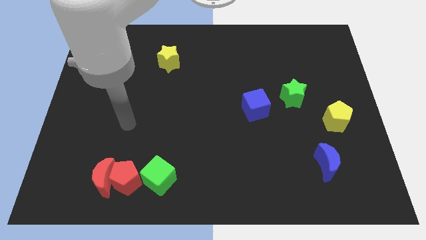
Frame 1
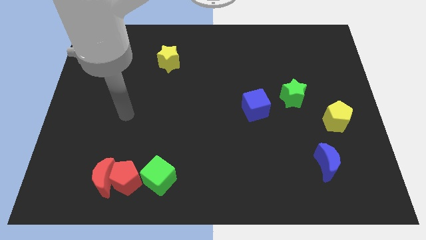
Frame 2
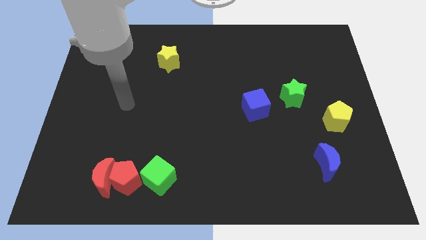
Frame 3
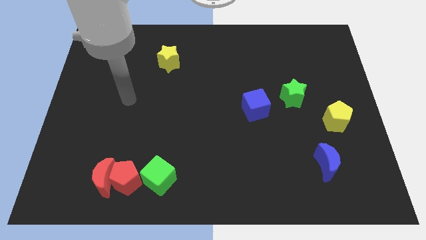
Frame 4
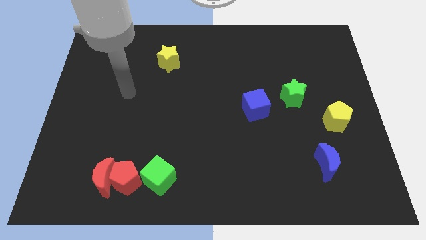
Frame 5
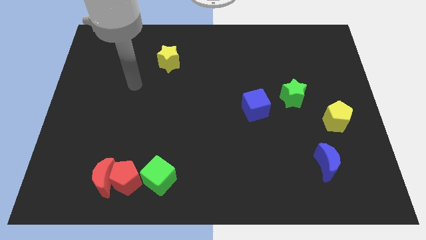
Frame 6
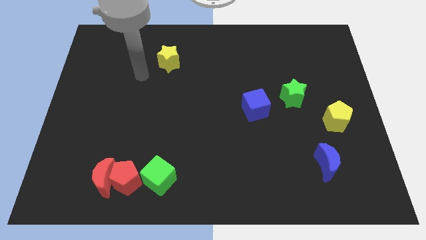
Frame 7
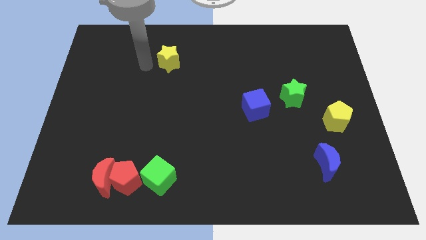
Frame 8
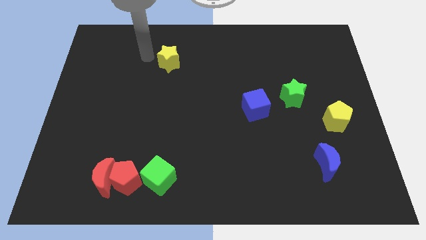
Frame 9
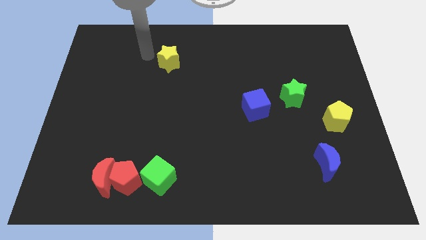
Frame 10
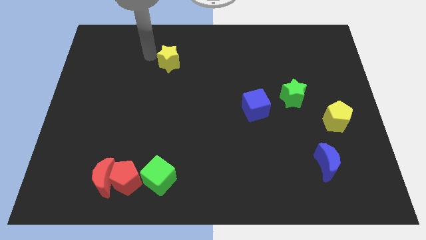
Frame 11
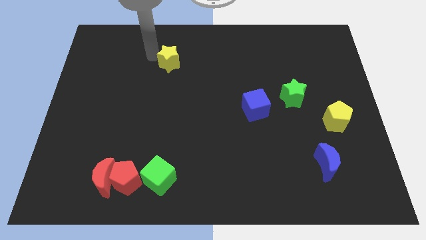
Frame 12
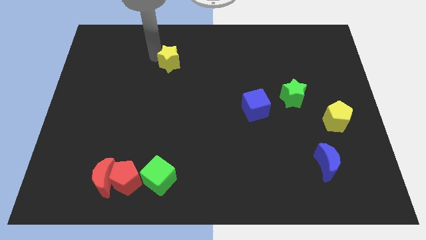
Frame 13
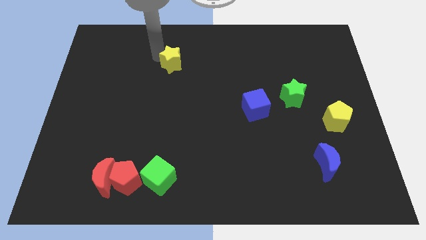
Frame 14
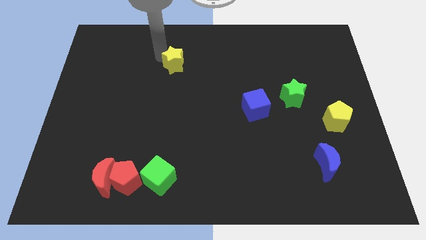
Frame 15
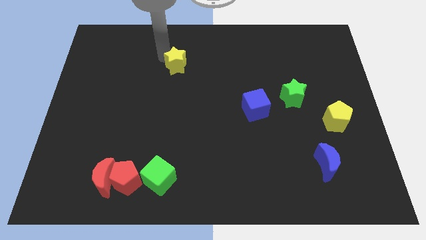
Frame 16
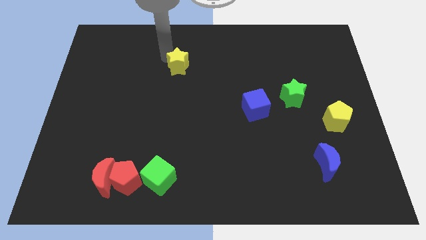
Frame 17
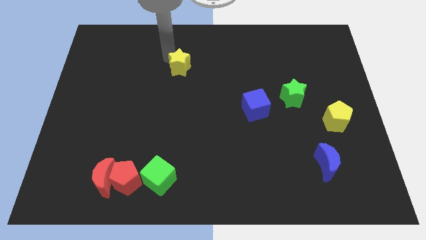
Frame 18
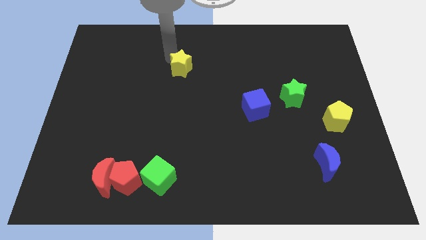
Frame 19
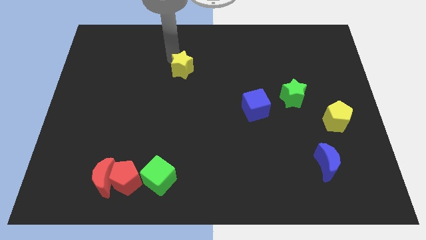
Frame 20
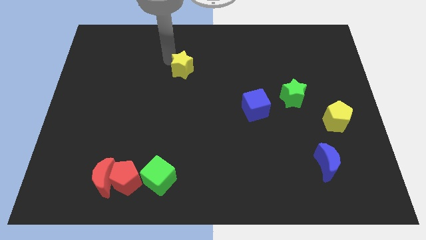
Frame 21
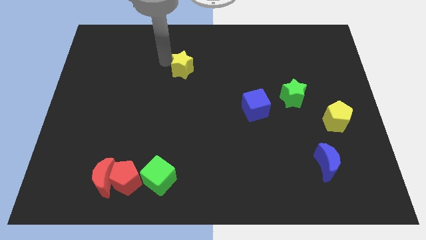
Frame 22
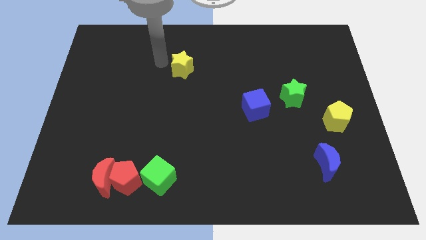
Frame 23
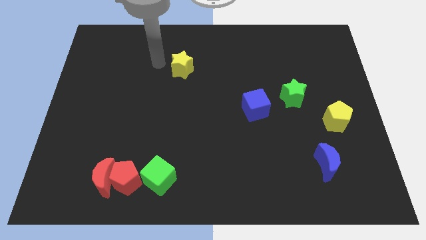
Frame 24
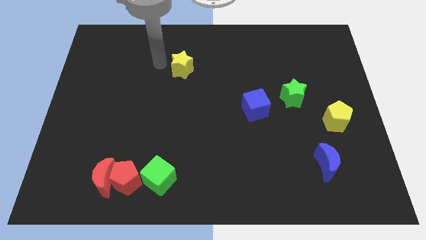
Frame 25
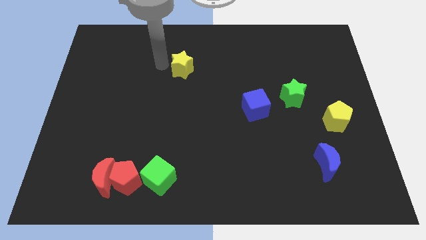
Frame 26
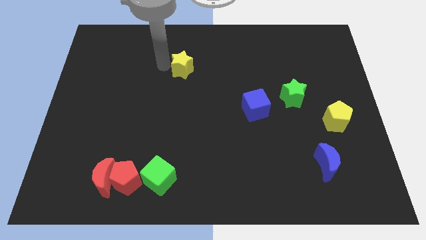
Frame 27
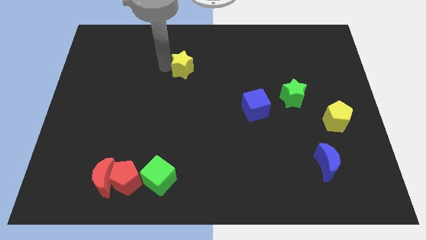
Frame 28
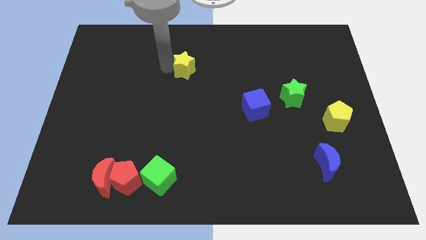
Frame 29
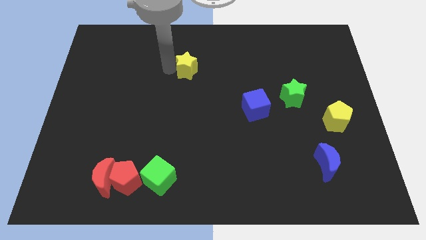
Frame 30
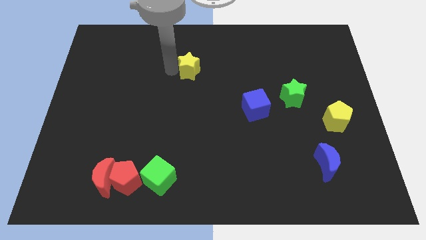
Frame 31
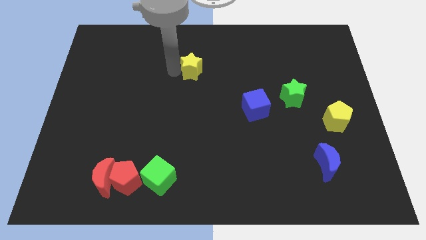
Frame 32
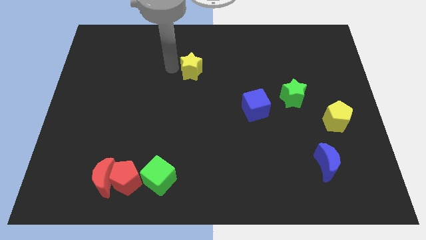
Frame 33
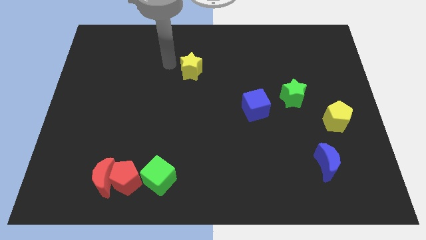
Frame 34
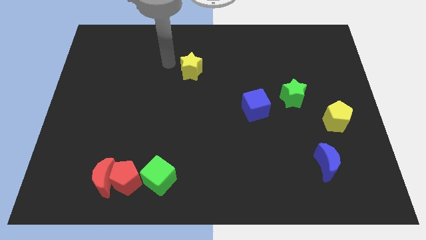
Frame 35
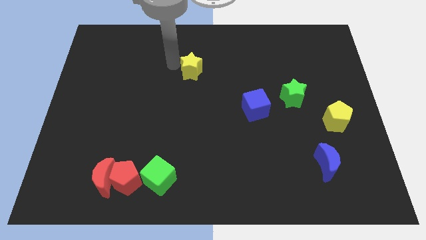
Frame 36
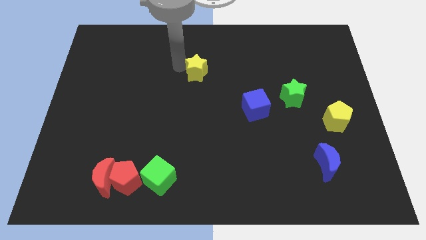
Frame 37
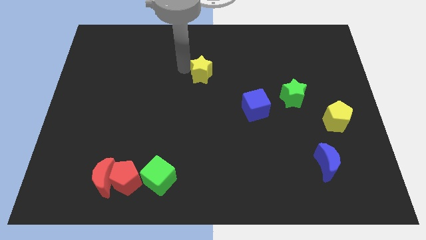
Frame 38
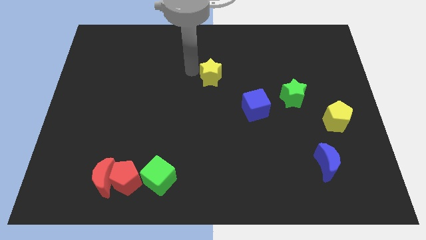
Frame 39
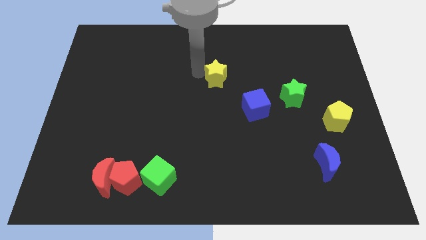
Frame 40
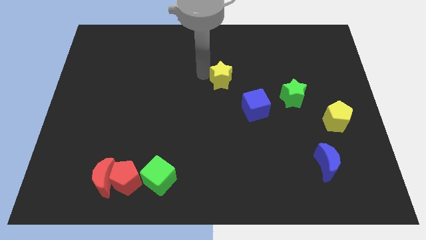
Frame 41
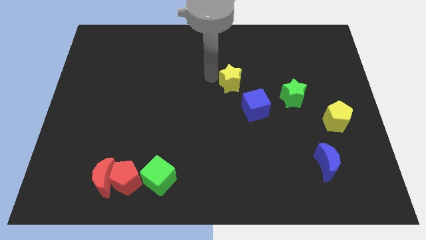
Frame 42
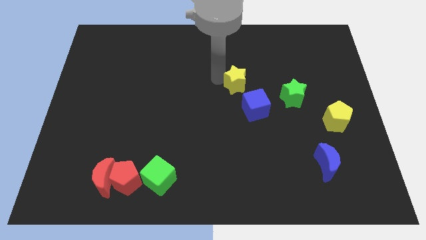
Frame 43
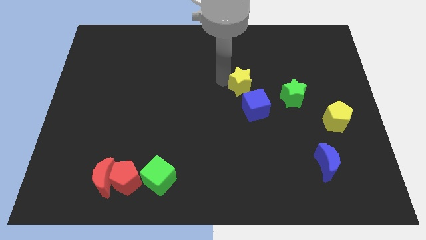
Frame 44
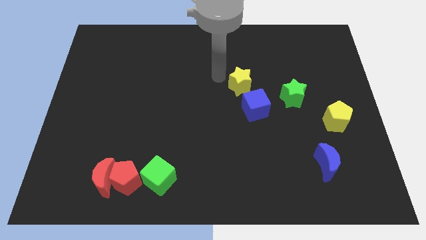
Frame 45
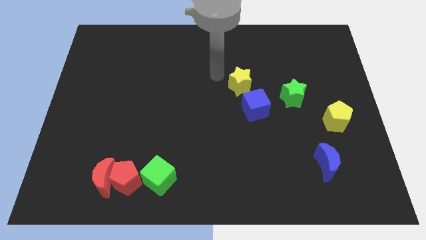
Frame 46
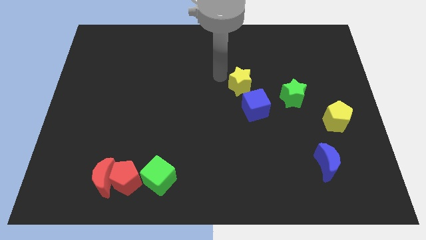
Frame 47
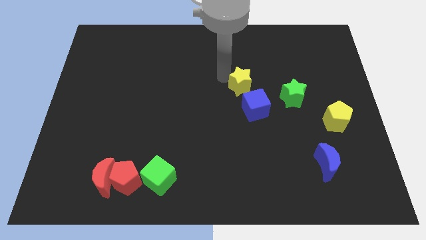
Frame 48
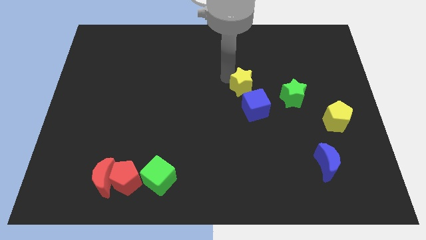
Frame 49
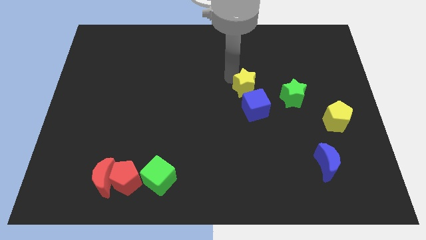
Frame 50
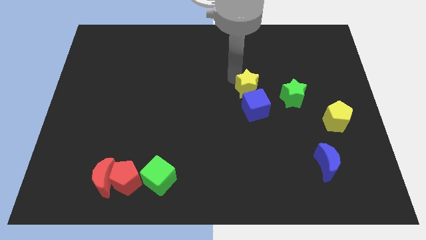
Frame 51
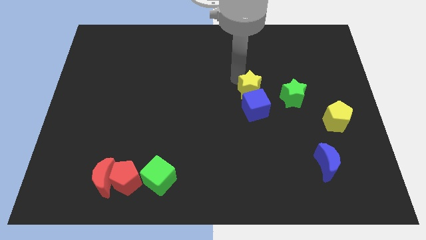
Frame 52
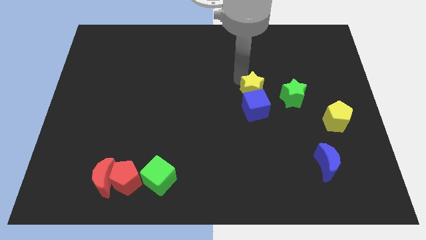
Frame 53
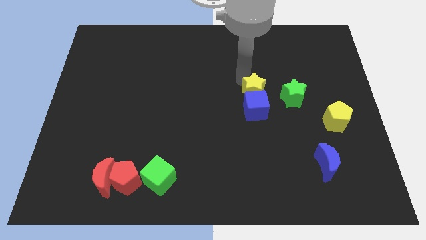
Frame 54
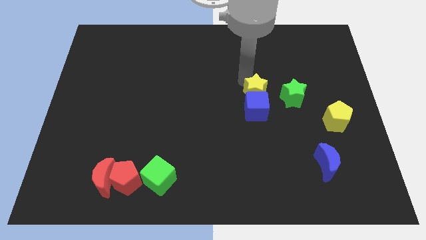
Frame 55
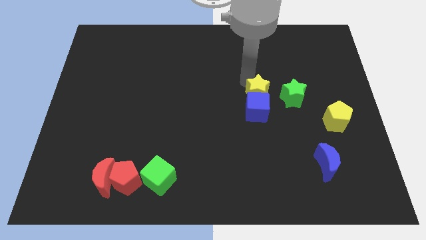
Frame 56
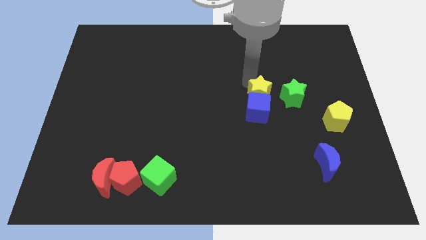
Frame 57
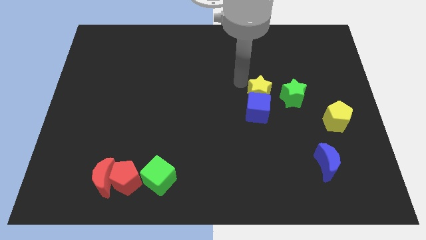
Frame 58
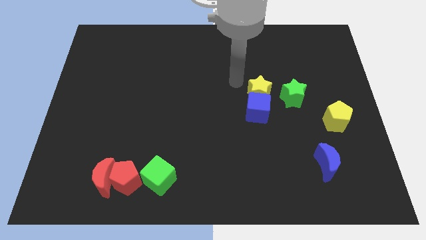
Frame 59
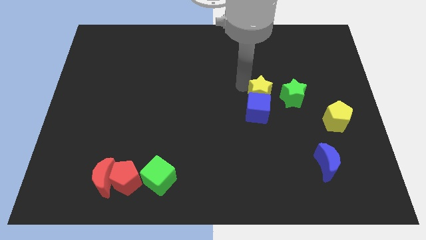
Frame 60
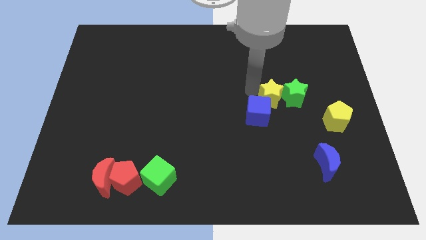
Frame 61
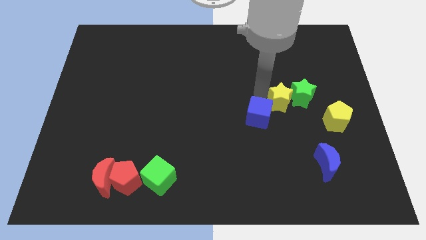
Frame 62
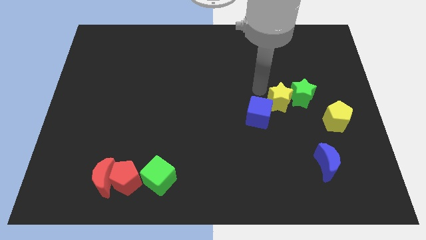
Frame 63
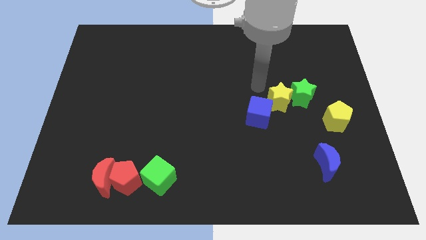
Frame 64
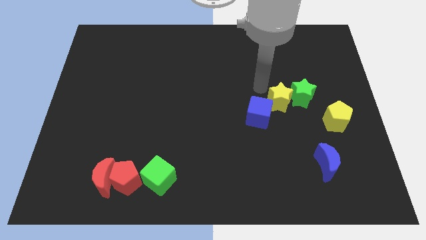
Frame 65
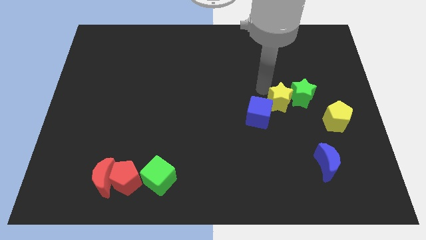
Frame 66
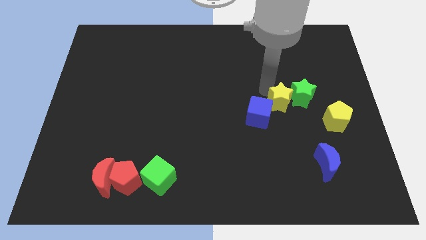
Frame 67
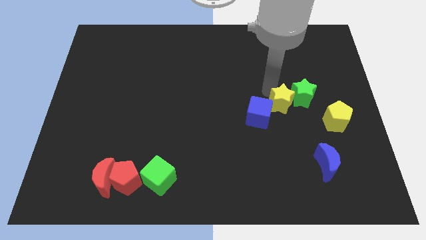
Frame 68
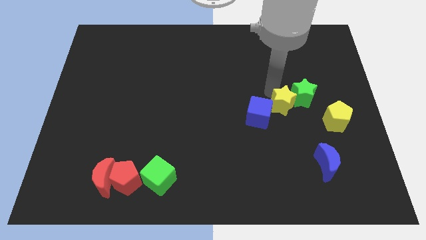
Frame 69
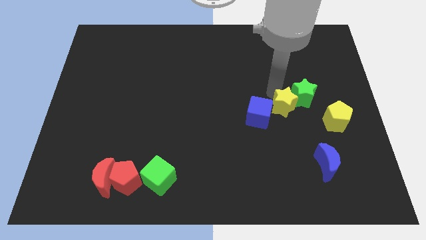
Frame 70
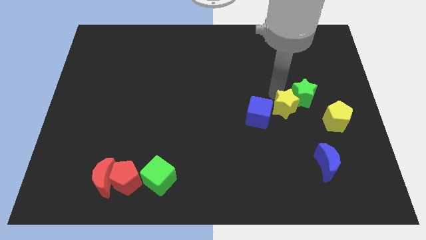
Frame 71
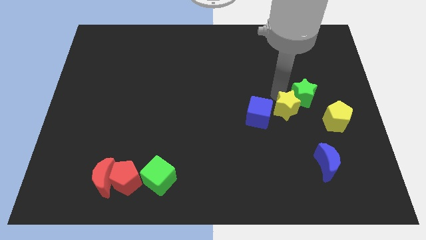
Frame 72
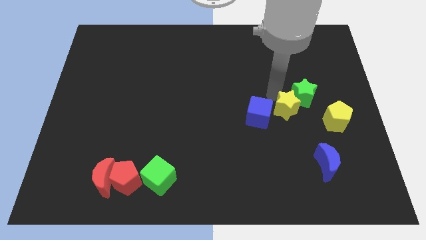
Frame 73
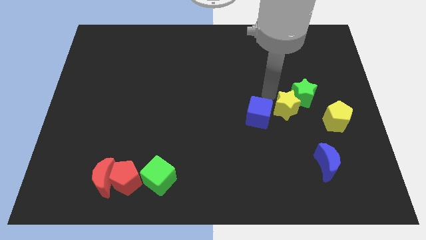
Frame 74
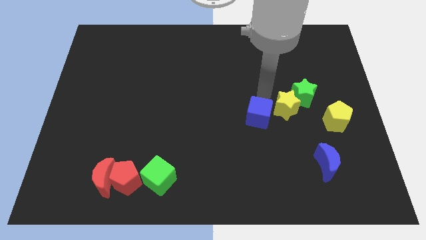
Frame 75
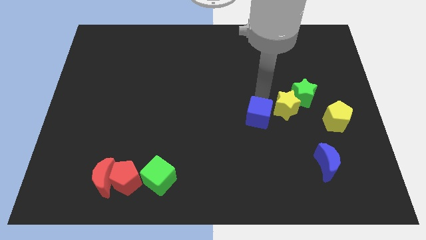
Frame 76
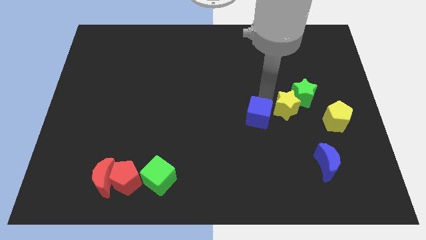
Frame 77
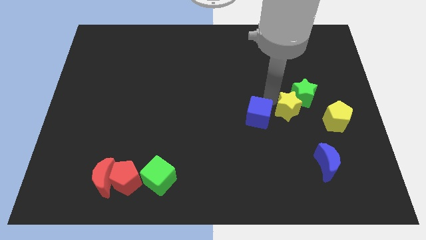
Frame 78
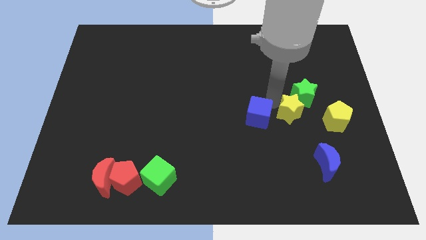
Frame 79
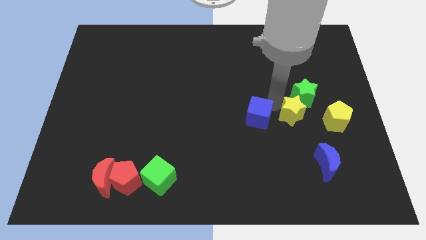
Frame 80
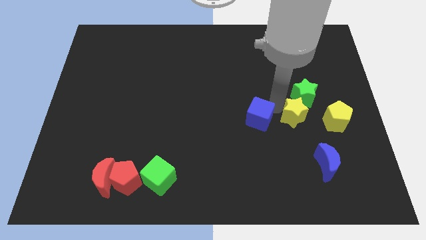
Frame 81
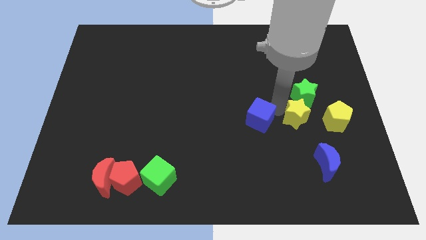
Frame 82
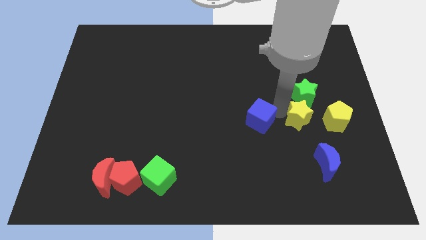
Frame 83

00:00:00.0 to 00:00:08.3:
put the yellow star above the blue moon
